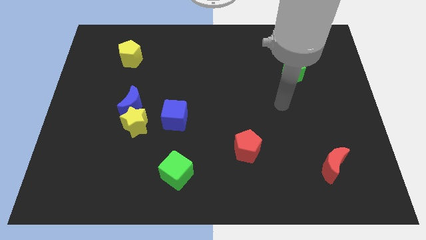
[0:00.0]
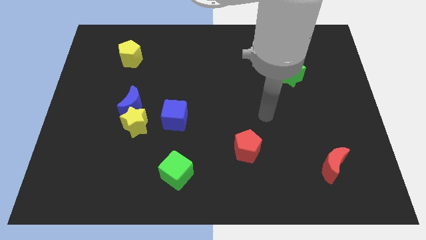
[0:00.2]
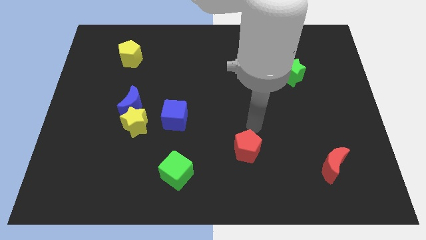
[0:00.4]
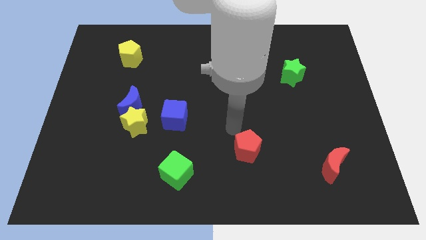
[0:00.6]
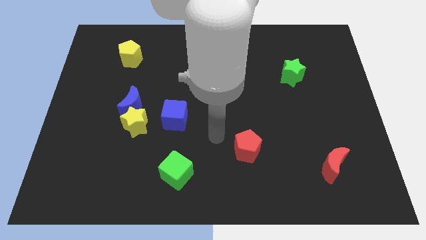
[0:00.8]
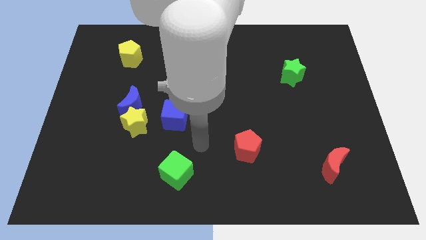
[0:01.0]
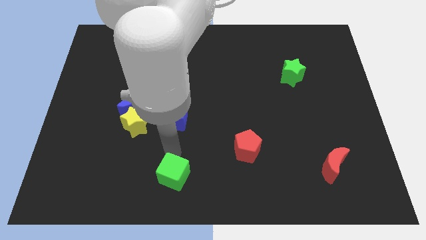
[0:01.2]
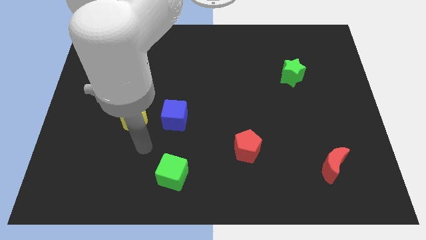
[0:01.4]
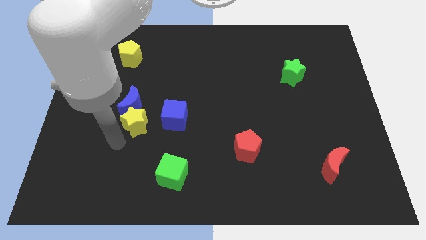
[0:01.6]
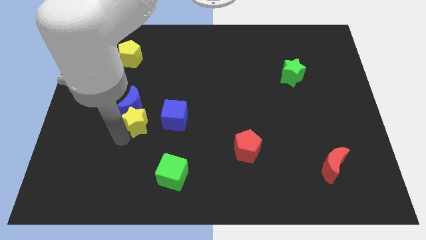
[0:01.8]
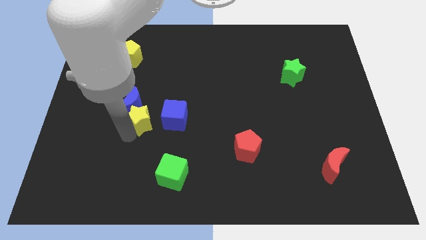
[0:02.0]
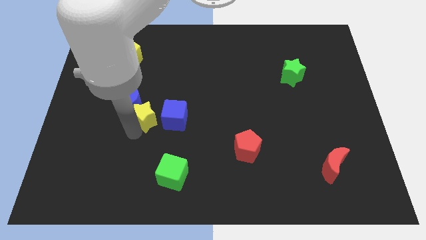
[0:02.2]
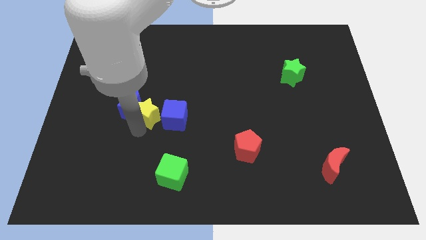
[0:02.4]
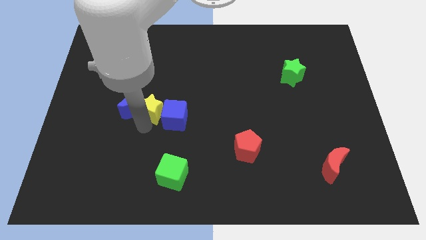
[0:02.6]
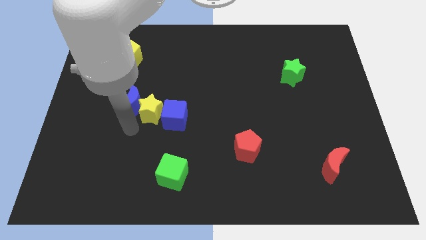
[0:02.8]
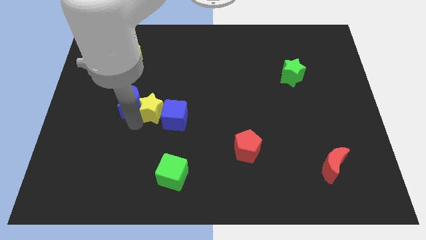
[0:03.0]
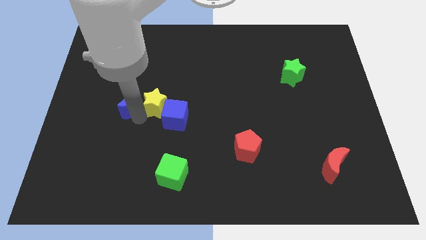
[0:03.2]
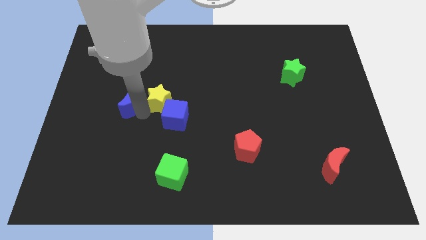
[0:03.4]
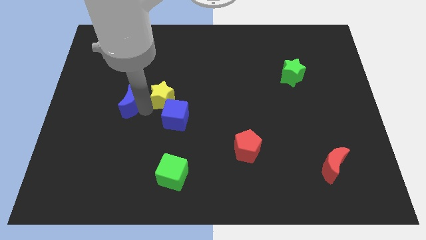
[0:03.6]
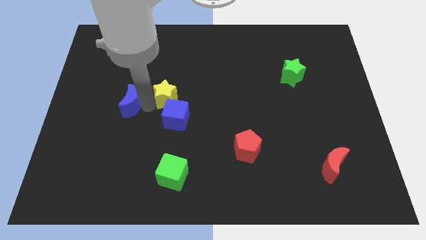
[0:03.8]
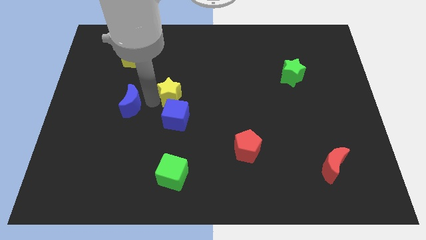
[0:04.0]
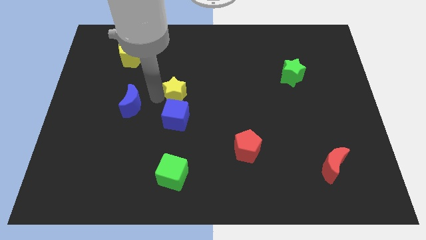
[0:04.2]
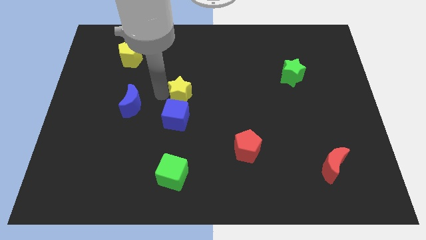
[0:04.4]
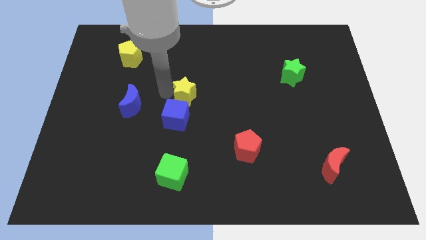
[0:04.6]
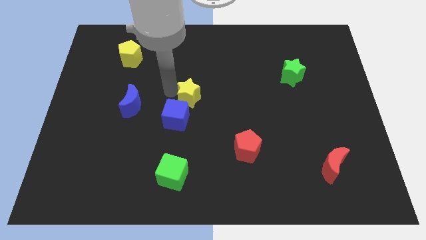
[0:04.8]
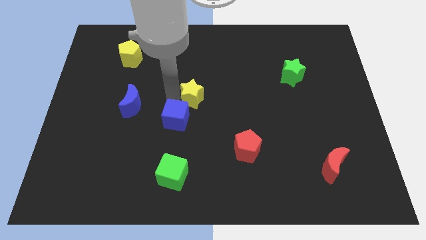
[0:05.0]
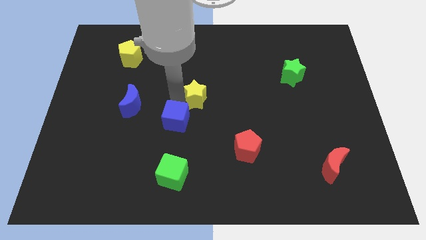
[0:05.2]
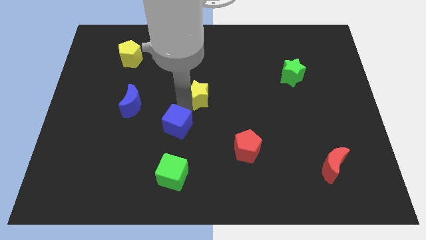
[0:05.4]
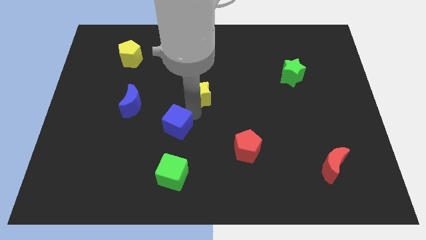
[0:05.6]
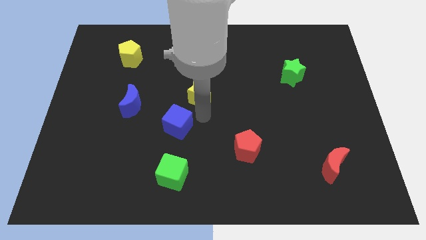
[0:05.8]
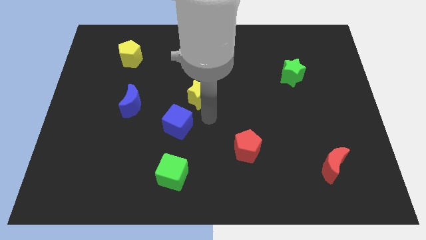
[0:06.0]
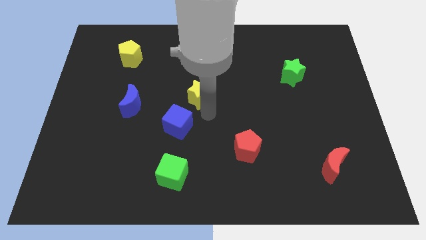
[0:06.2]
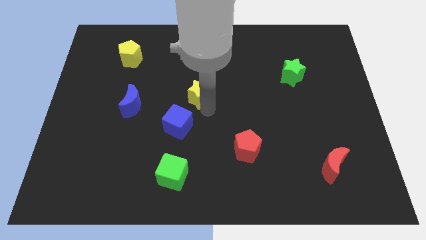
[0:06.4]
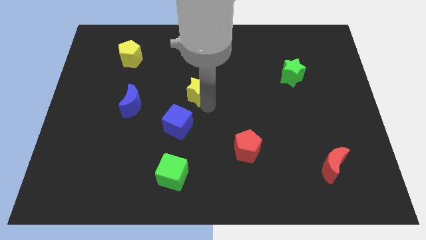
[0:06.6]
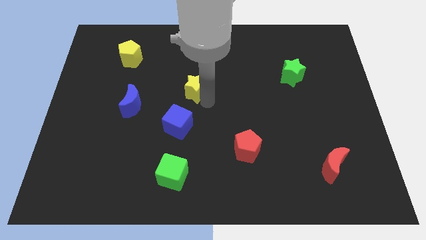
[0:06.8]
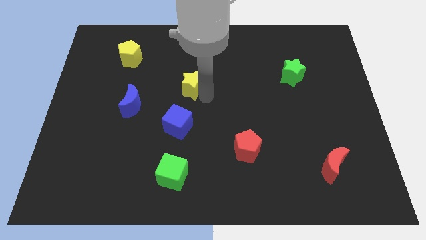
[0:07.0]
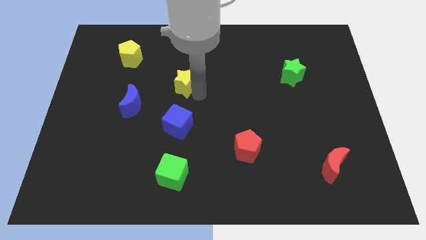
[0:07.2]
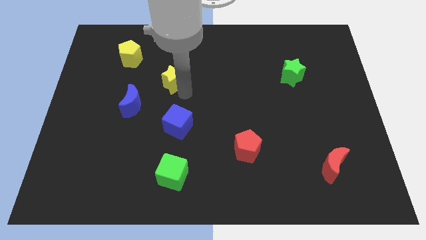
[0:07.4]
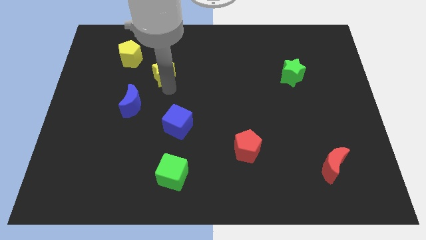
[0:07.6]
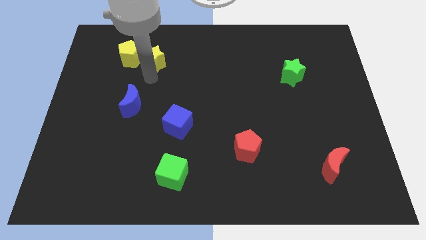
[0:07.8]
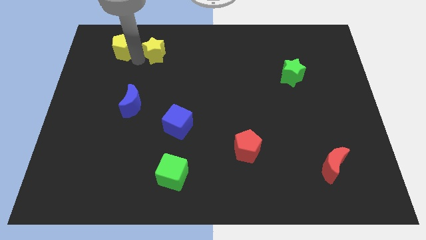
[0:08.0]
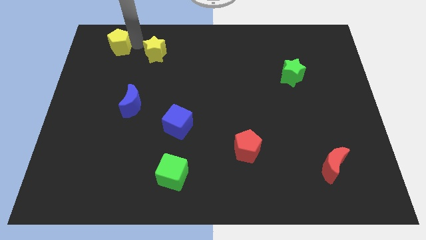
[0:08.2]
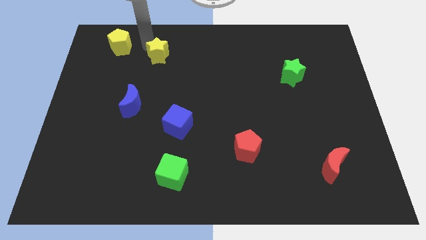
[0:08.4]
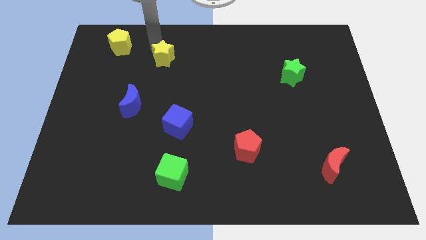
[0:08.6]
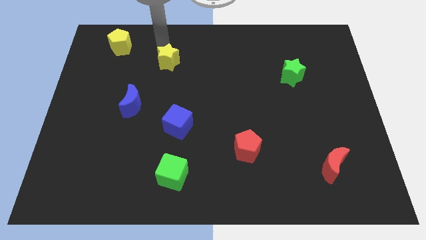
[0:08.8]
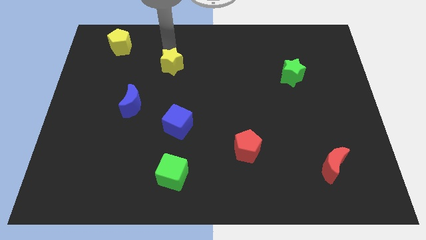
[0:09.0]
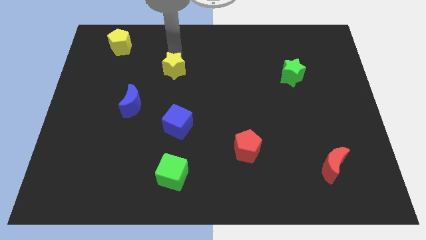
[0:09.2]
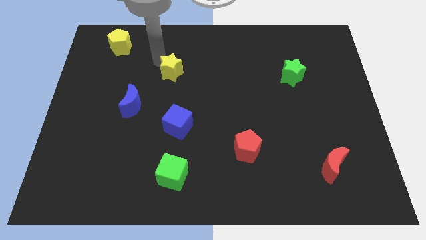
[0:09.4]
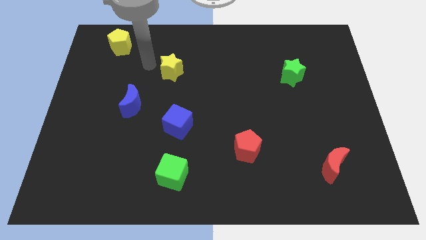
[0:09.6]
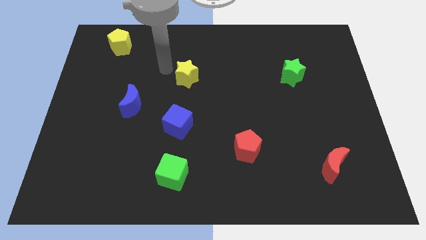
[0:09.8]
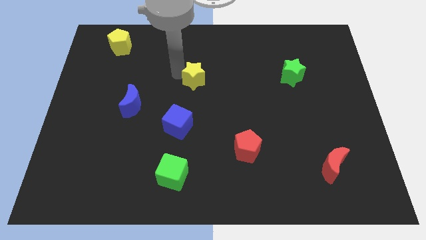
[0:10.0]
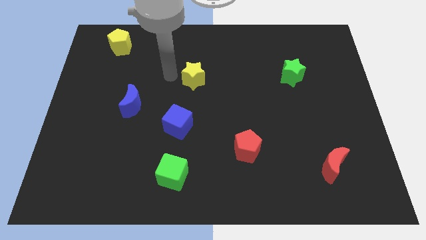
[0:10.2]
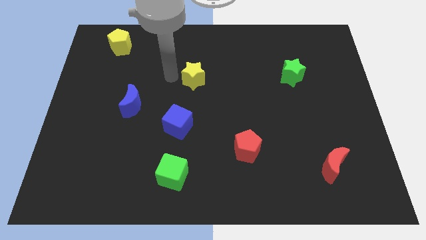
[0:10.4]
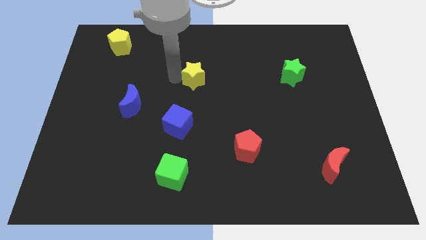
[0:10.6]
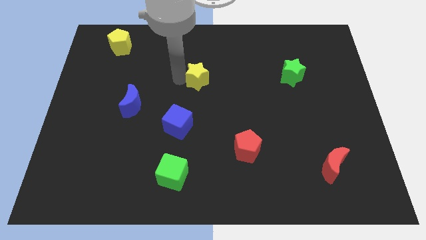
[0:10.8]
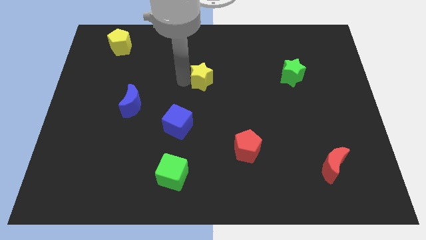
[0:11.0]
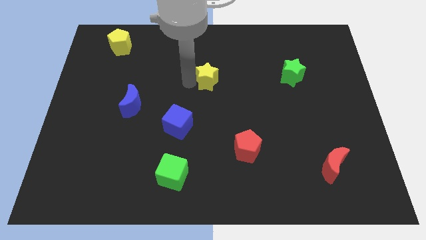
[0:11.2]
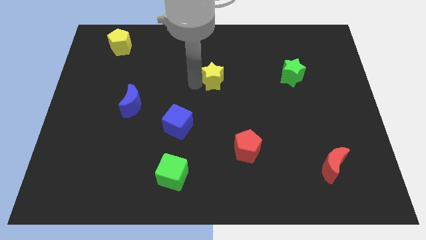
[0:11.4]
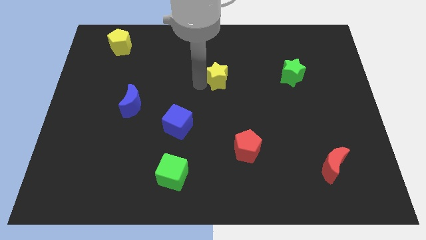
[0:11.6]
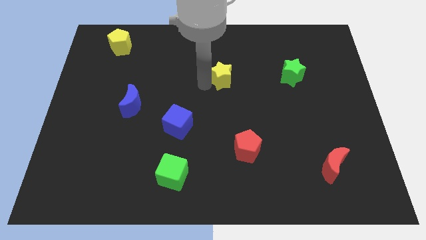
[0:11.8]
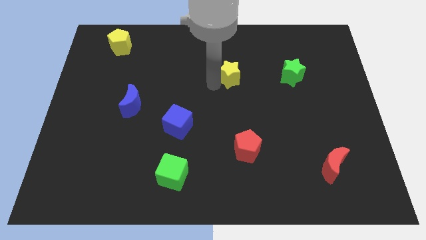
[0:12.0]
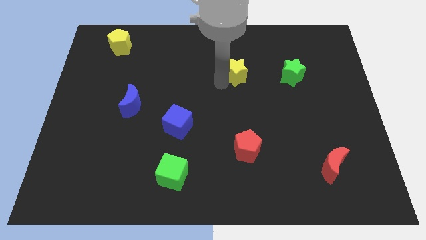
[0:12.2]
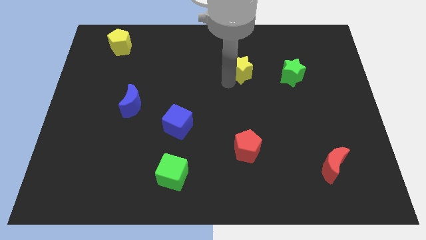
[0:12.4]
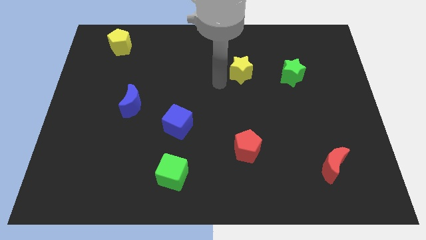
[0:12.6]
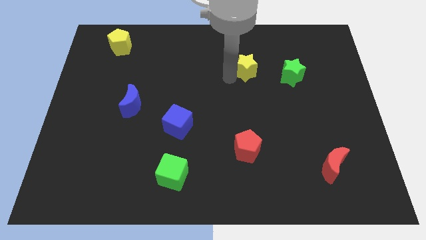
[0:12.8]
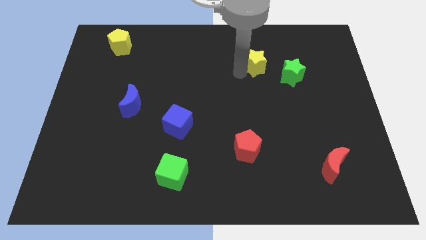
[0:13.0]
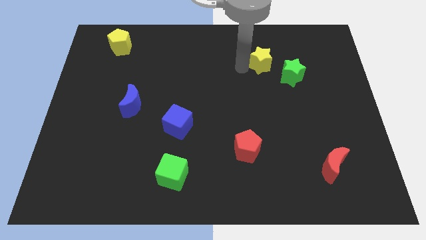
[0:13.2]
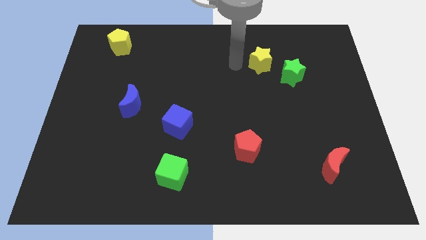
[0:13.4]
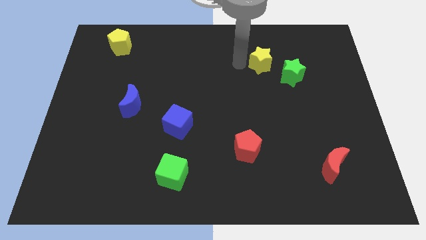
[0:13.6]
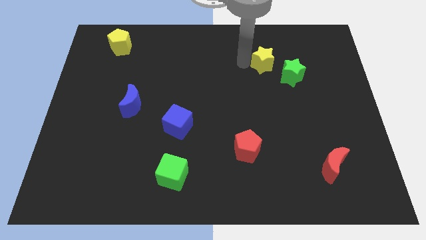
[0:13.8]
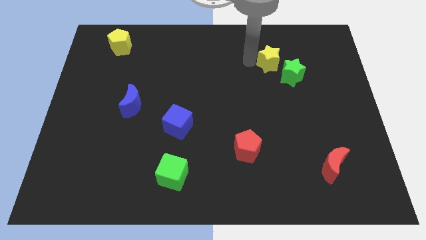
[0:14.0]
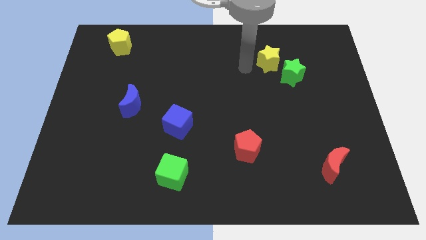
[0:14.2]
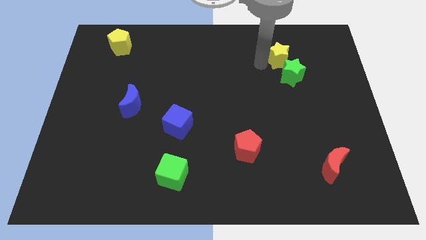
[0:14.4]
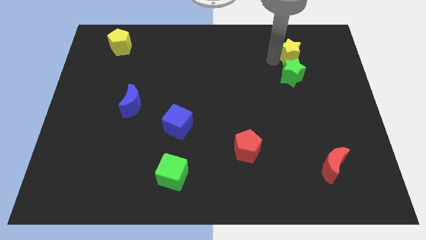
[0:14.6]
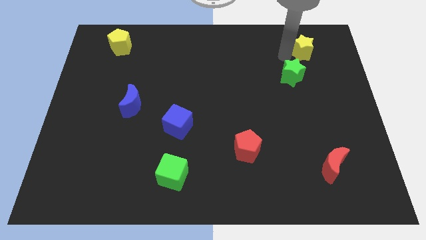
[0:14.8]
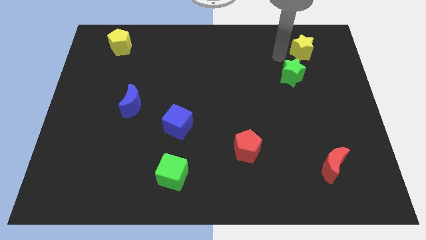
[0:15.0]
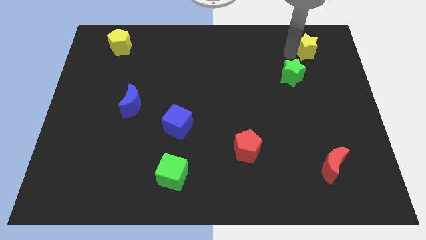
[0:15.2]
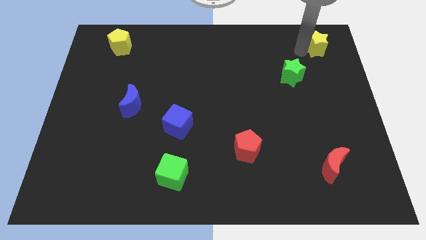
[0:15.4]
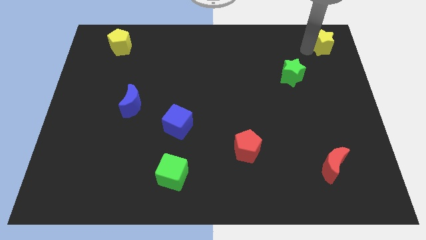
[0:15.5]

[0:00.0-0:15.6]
push the yellow star to the top right corner
